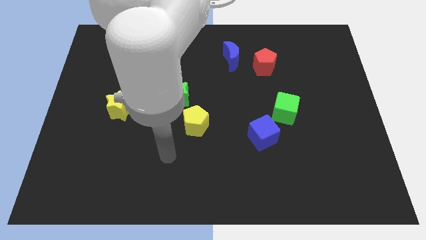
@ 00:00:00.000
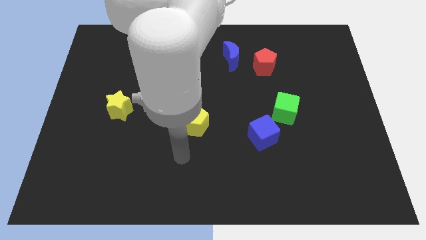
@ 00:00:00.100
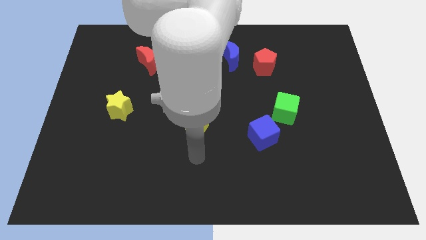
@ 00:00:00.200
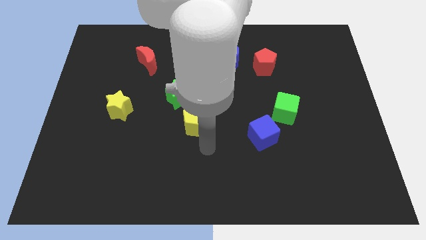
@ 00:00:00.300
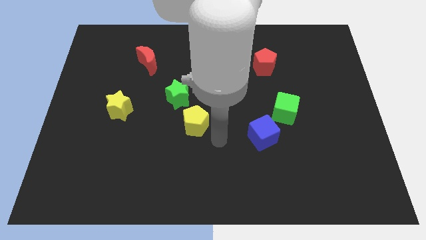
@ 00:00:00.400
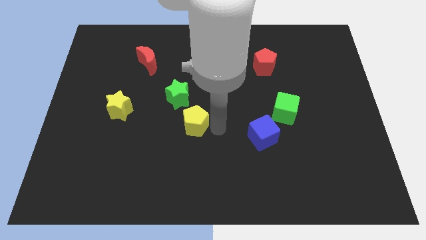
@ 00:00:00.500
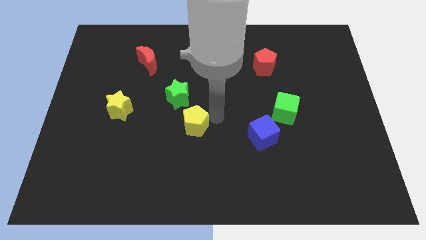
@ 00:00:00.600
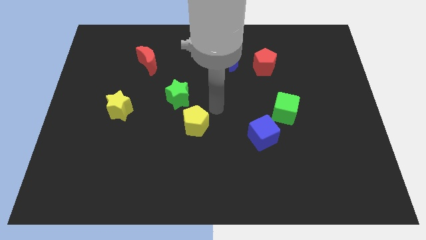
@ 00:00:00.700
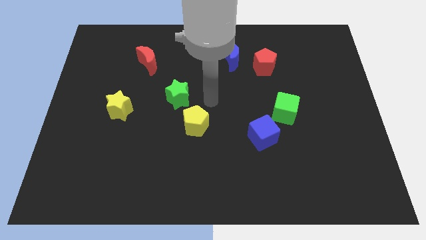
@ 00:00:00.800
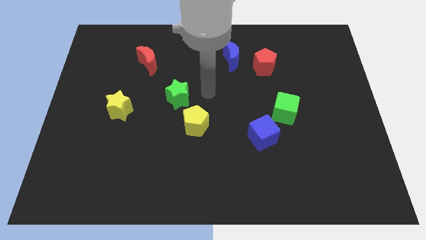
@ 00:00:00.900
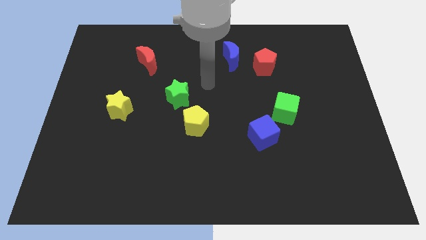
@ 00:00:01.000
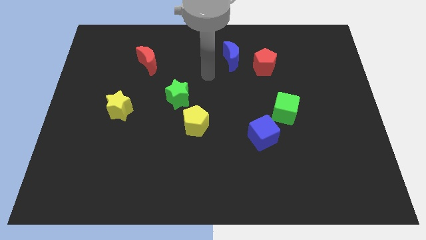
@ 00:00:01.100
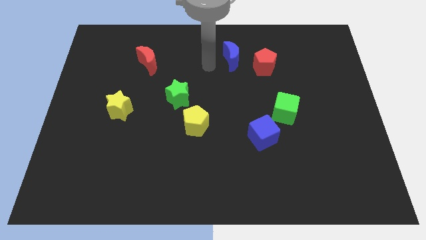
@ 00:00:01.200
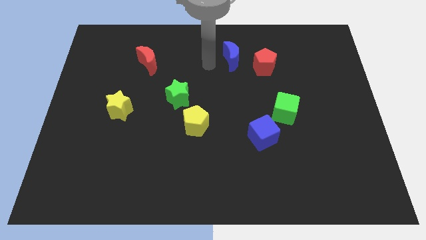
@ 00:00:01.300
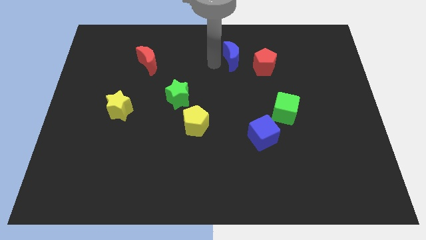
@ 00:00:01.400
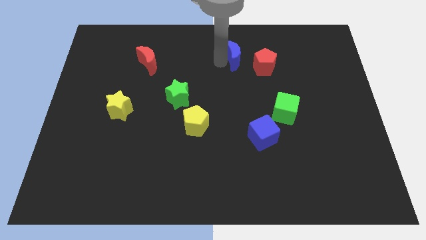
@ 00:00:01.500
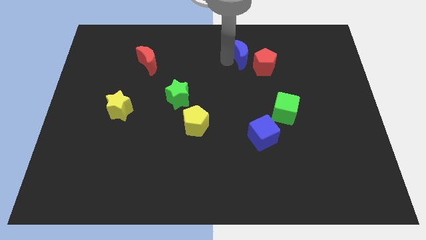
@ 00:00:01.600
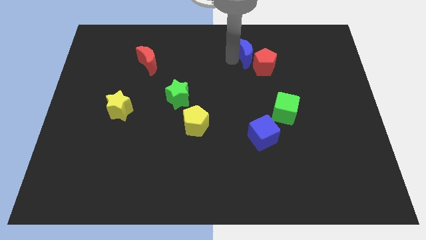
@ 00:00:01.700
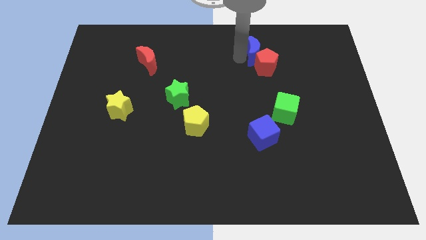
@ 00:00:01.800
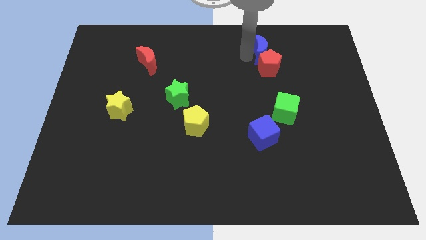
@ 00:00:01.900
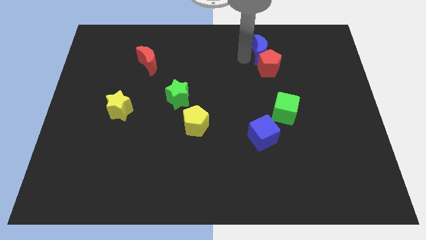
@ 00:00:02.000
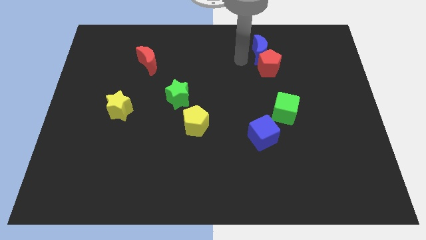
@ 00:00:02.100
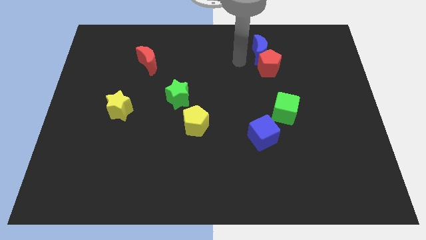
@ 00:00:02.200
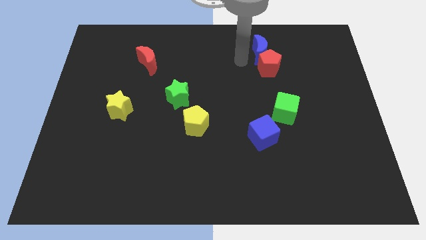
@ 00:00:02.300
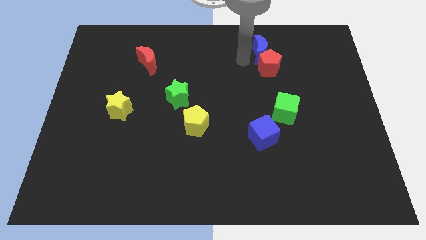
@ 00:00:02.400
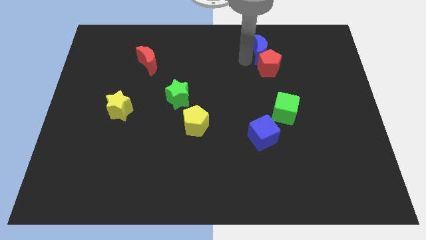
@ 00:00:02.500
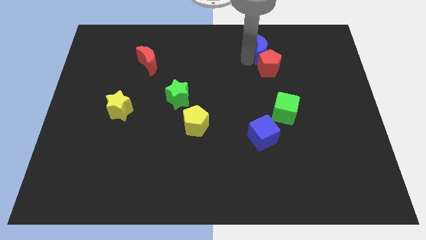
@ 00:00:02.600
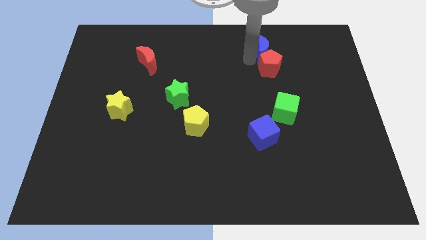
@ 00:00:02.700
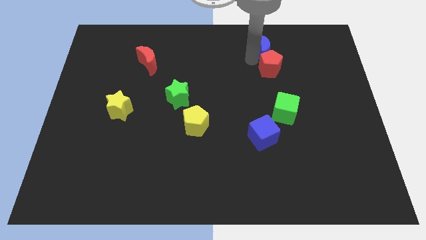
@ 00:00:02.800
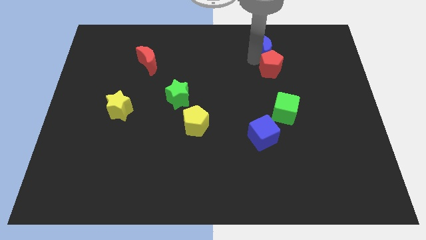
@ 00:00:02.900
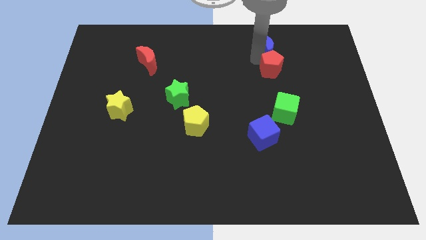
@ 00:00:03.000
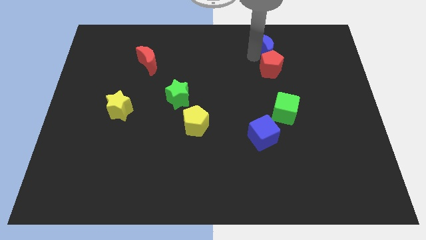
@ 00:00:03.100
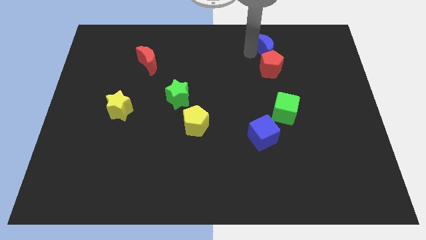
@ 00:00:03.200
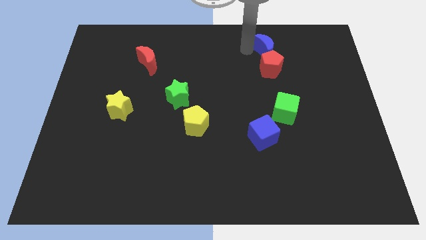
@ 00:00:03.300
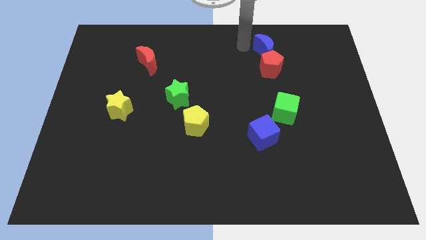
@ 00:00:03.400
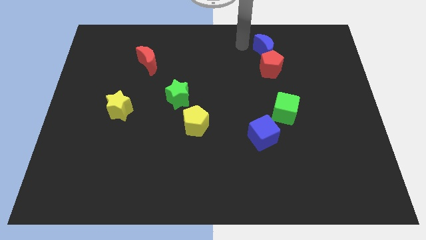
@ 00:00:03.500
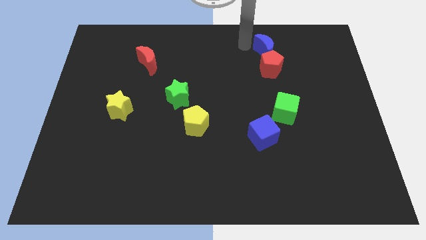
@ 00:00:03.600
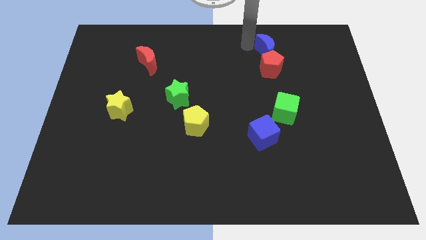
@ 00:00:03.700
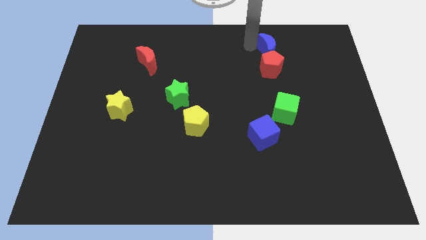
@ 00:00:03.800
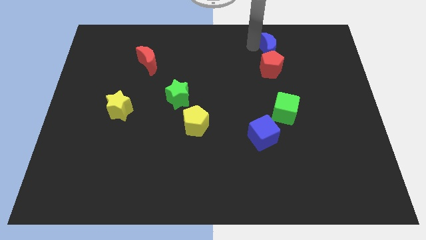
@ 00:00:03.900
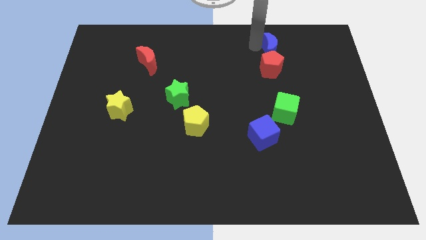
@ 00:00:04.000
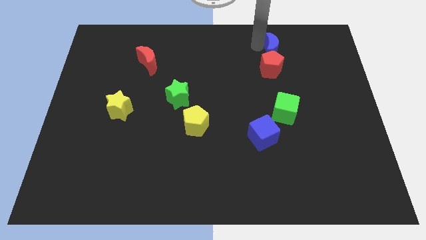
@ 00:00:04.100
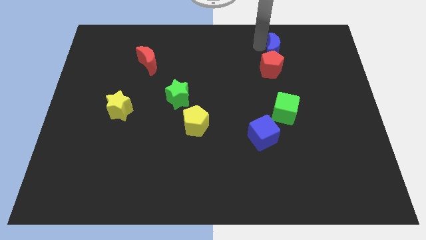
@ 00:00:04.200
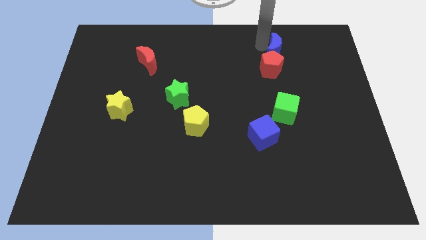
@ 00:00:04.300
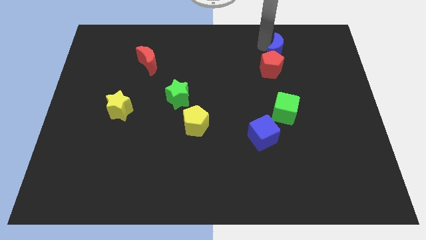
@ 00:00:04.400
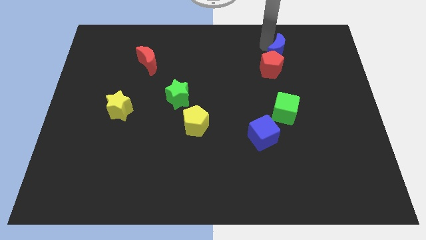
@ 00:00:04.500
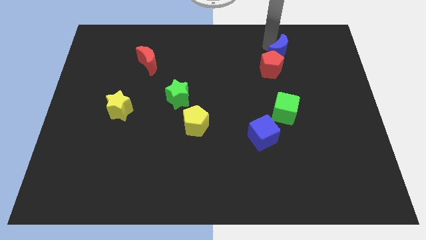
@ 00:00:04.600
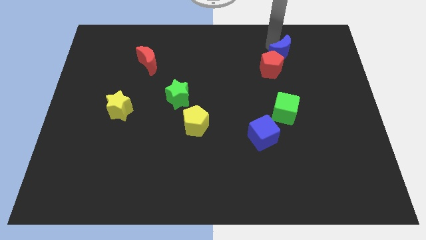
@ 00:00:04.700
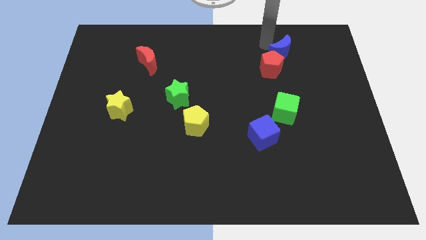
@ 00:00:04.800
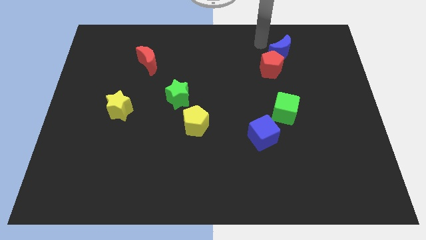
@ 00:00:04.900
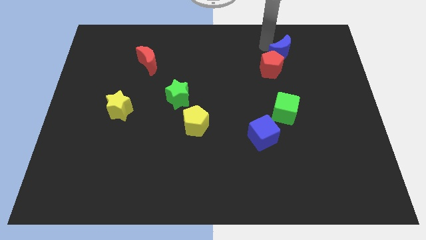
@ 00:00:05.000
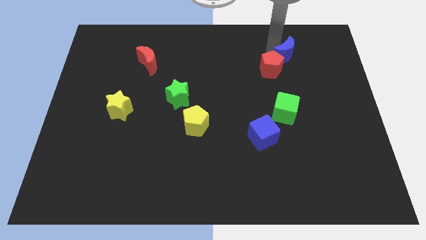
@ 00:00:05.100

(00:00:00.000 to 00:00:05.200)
push the blue moon just right of the red pentagon

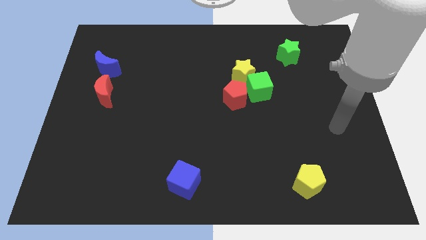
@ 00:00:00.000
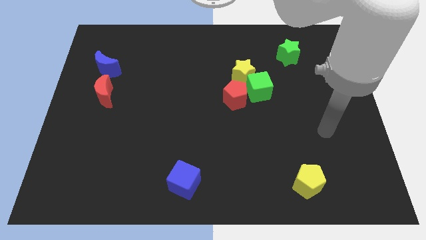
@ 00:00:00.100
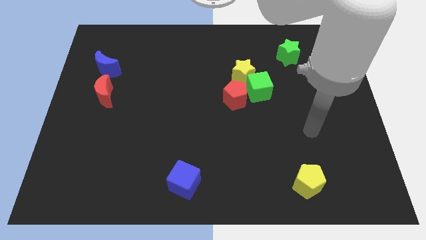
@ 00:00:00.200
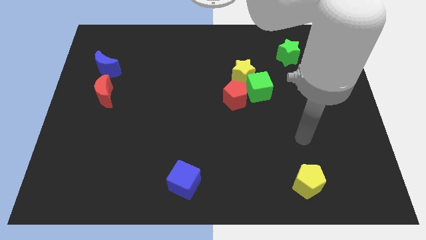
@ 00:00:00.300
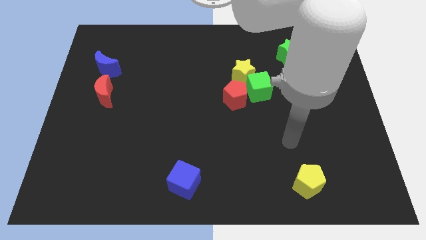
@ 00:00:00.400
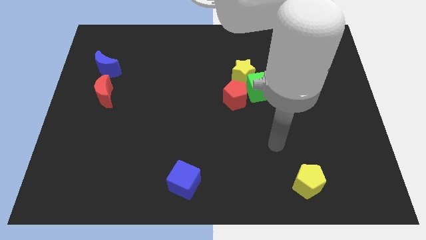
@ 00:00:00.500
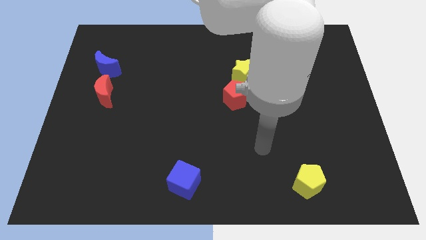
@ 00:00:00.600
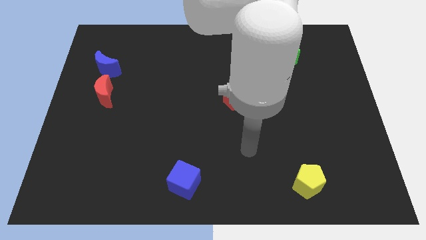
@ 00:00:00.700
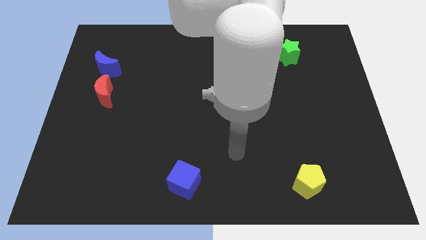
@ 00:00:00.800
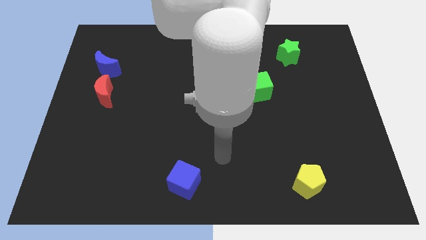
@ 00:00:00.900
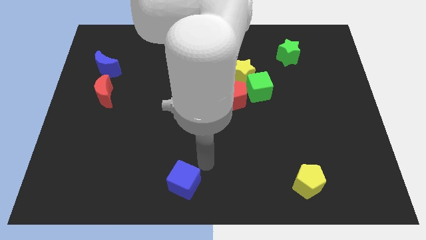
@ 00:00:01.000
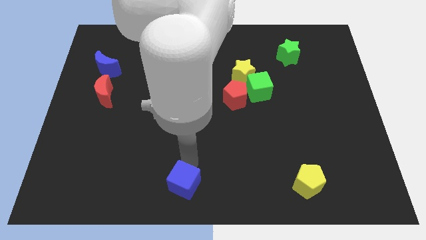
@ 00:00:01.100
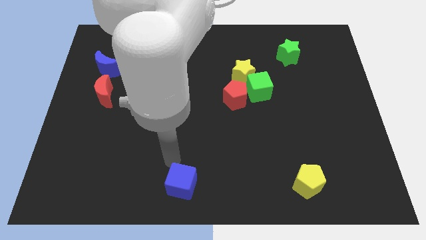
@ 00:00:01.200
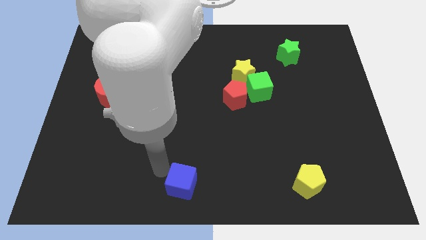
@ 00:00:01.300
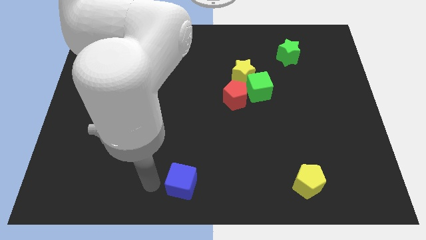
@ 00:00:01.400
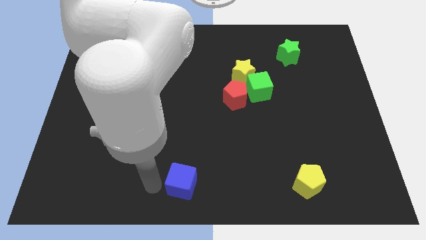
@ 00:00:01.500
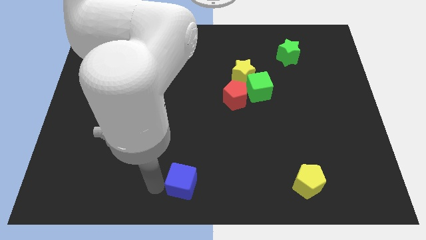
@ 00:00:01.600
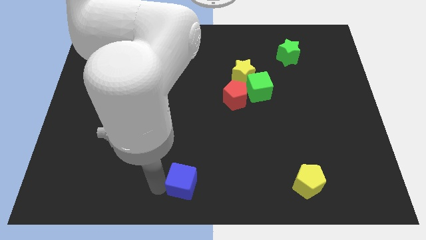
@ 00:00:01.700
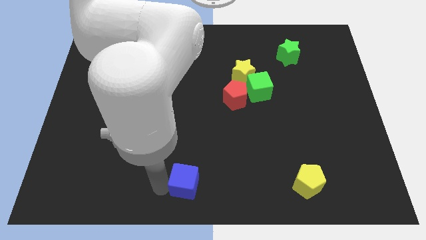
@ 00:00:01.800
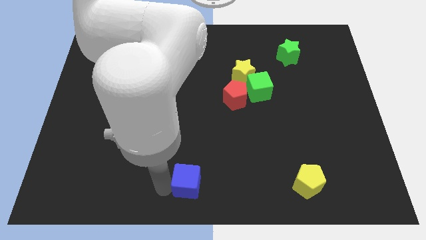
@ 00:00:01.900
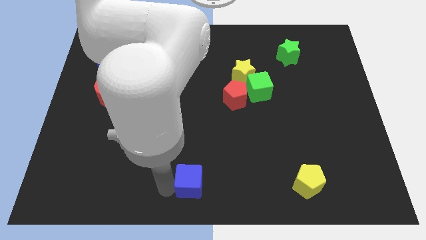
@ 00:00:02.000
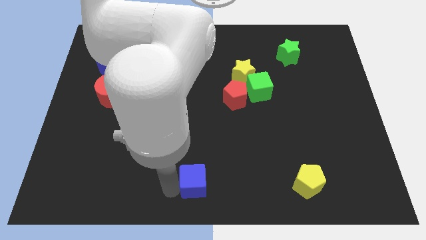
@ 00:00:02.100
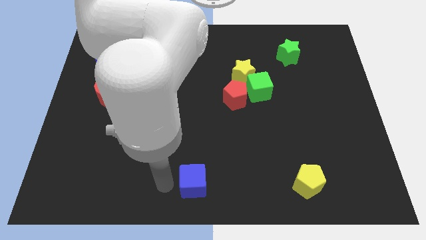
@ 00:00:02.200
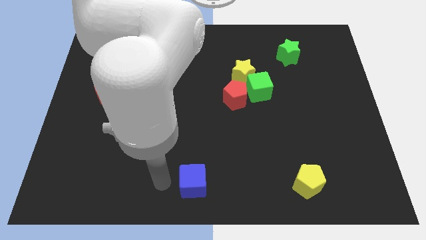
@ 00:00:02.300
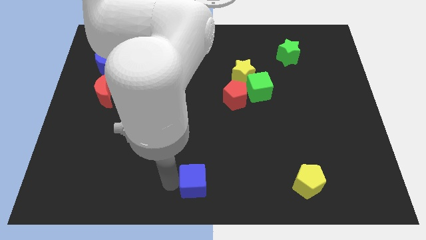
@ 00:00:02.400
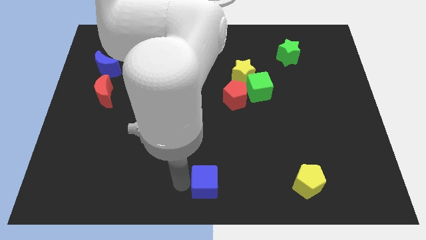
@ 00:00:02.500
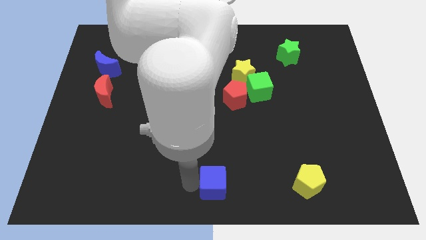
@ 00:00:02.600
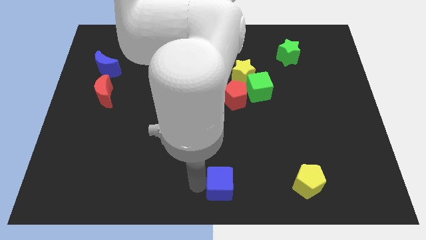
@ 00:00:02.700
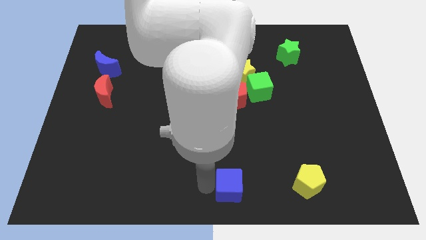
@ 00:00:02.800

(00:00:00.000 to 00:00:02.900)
slide the blue cube left of the yellow pentagon
